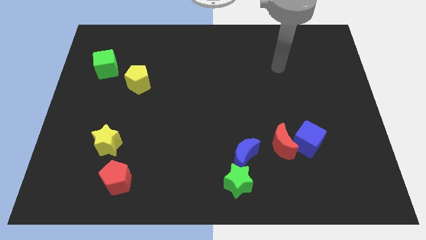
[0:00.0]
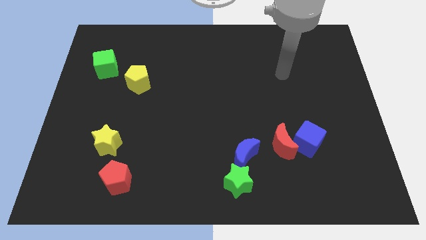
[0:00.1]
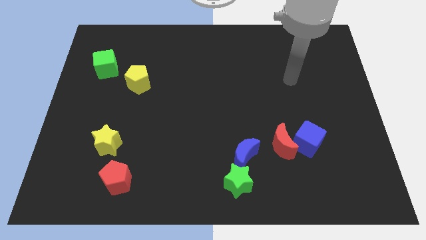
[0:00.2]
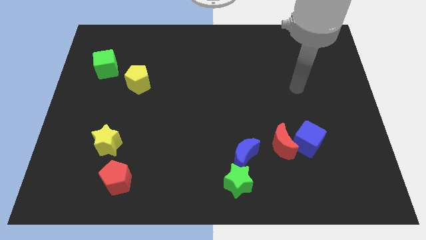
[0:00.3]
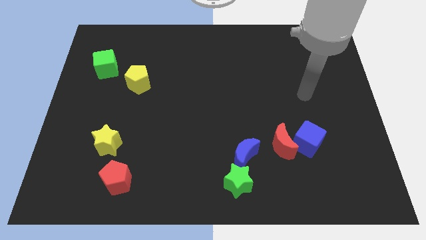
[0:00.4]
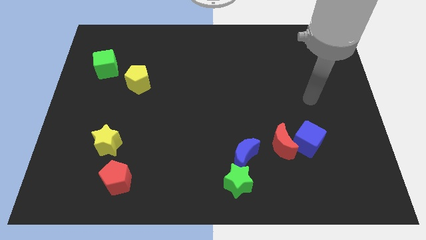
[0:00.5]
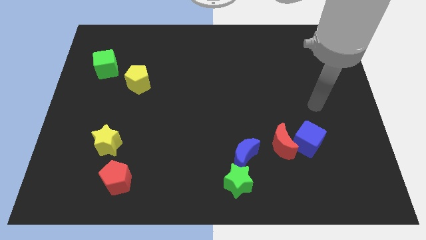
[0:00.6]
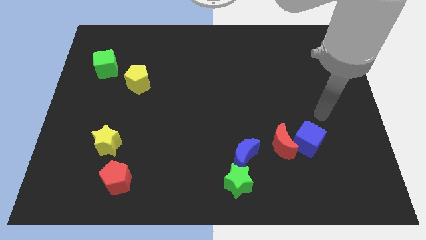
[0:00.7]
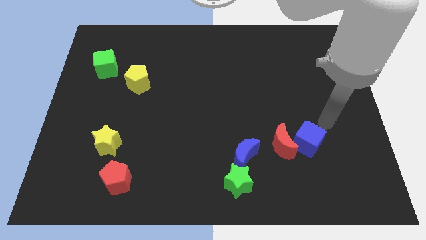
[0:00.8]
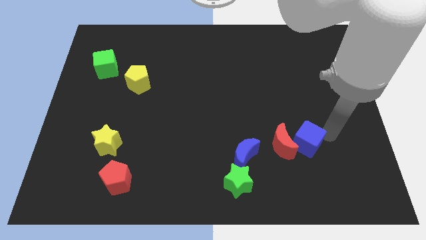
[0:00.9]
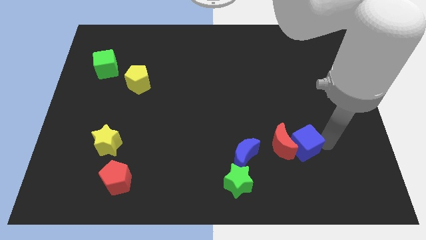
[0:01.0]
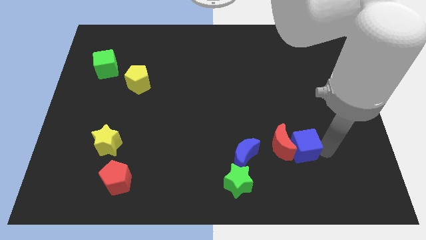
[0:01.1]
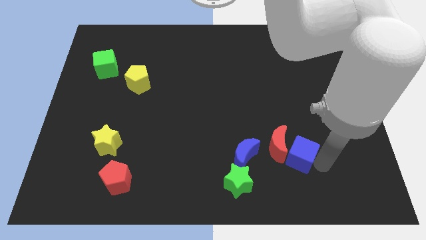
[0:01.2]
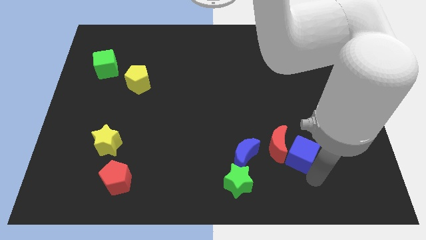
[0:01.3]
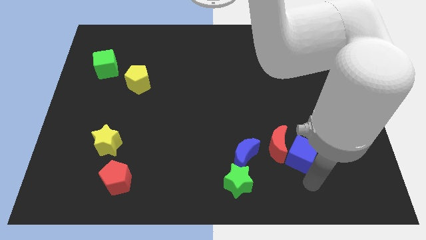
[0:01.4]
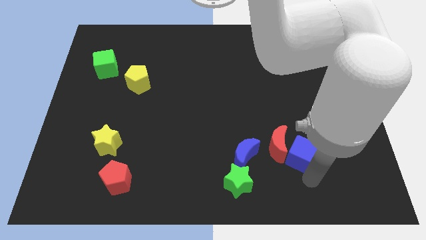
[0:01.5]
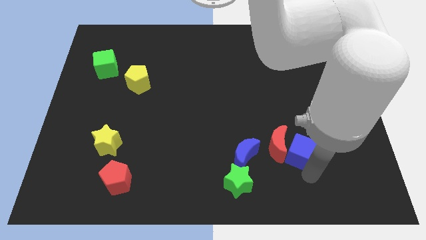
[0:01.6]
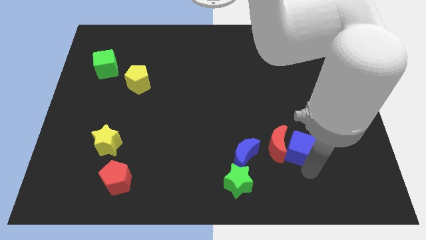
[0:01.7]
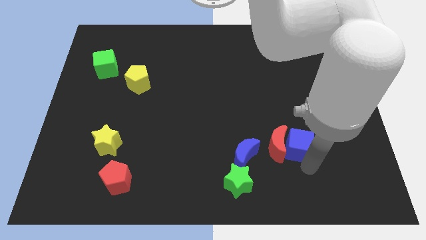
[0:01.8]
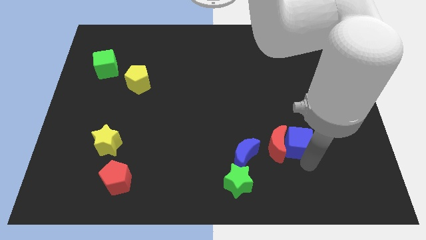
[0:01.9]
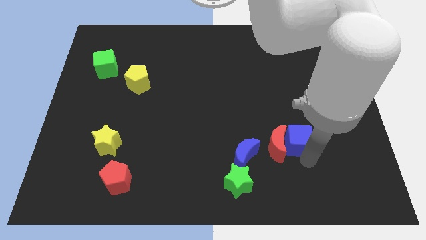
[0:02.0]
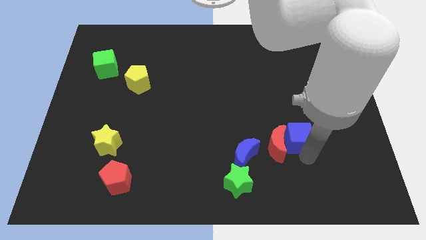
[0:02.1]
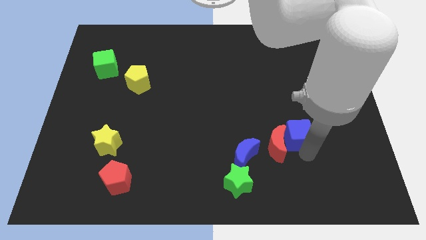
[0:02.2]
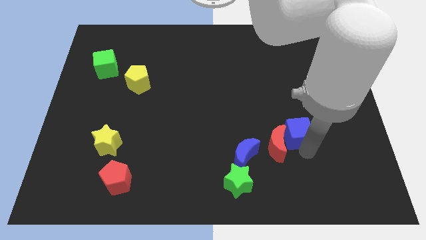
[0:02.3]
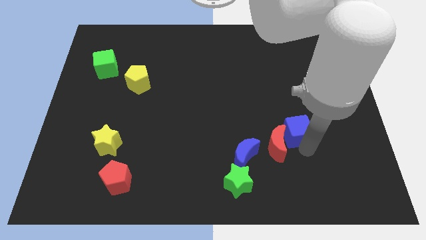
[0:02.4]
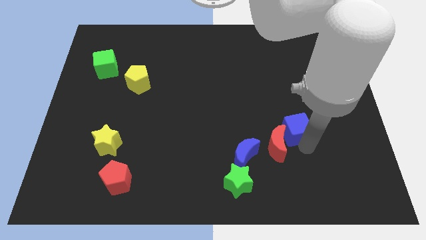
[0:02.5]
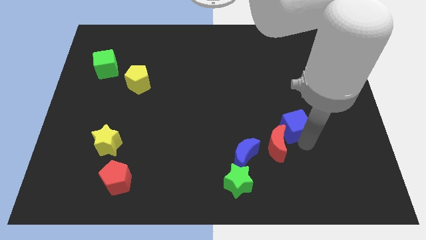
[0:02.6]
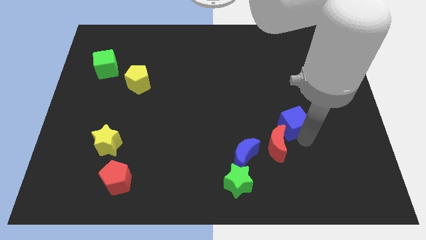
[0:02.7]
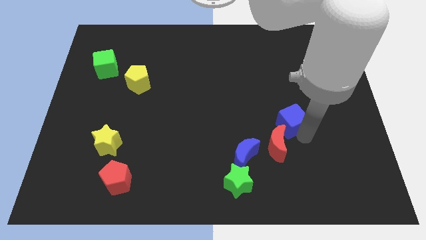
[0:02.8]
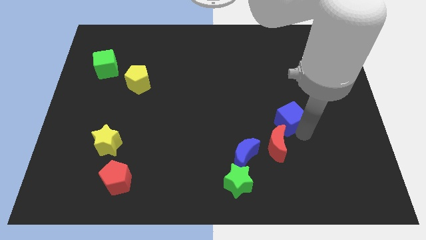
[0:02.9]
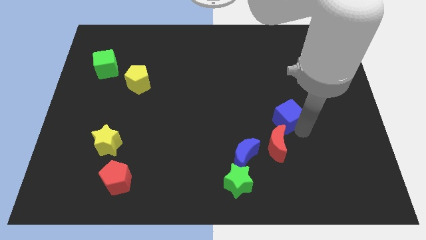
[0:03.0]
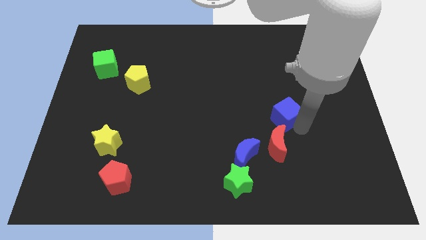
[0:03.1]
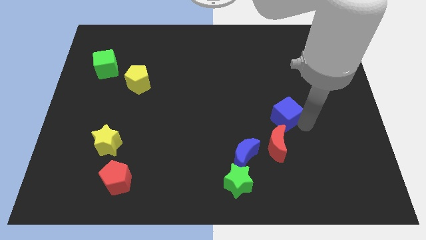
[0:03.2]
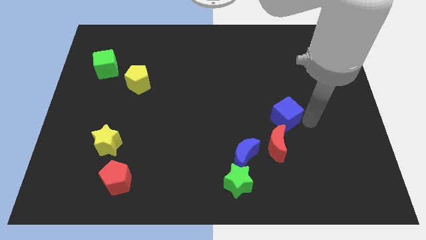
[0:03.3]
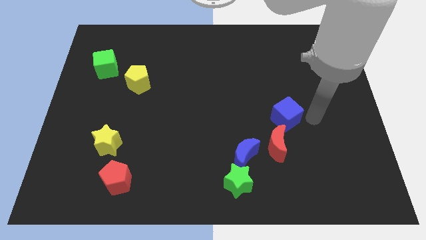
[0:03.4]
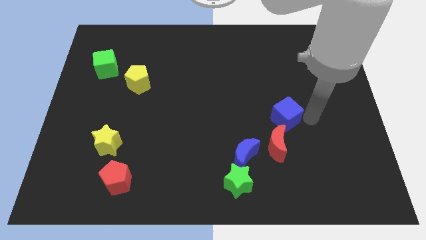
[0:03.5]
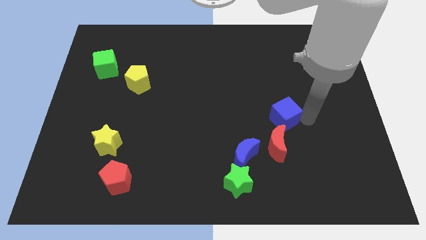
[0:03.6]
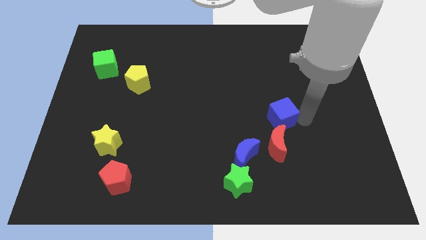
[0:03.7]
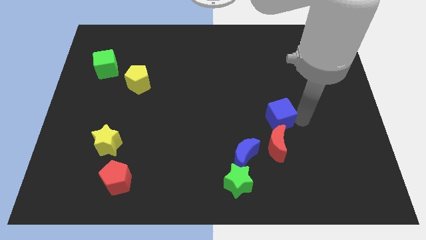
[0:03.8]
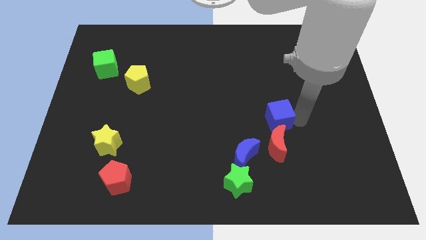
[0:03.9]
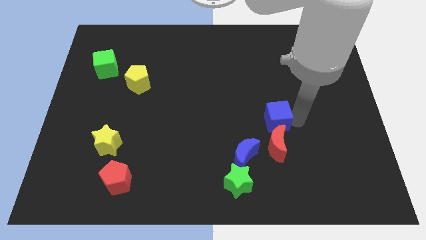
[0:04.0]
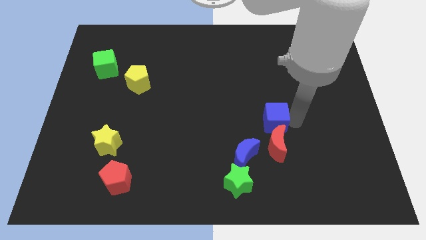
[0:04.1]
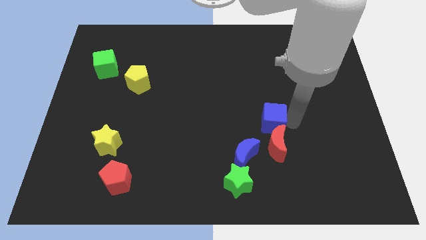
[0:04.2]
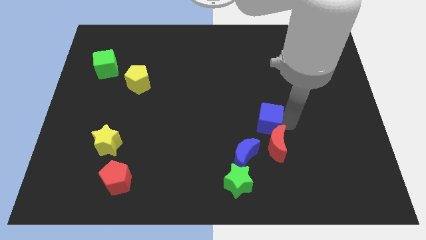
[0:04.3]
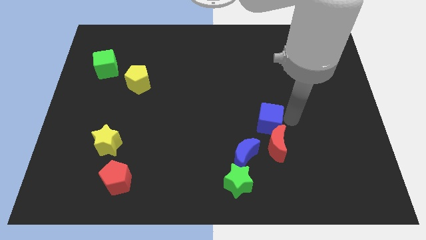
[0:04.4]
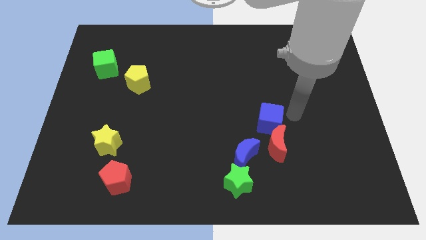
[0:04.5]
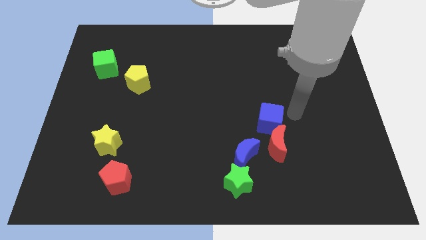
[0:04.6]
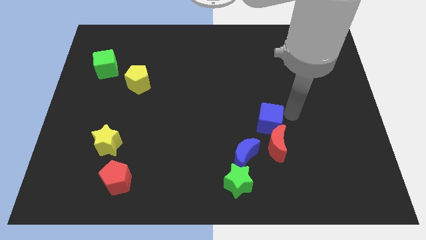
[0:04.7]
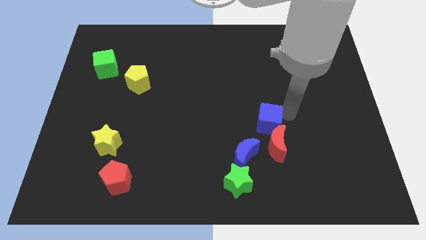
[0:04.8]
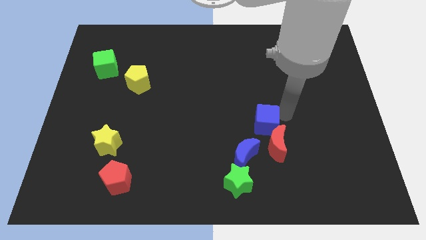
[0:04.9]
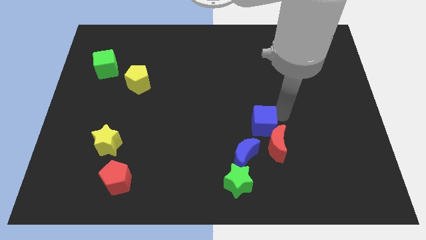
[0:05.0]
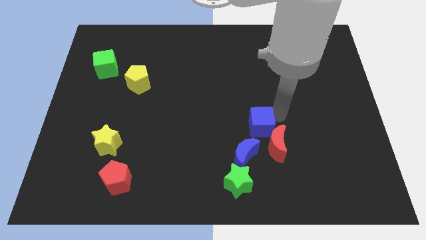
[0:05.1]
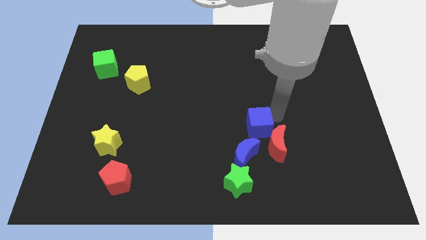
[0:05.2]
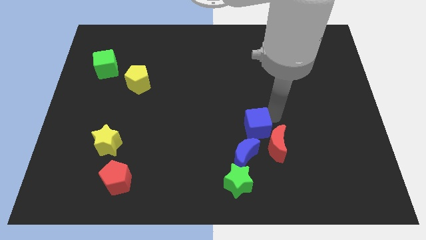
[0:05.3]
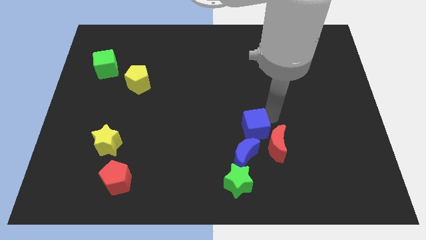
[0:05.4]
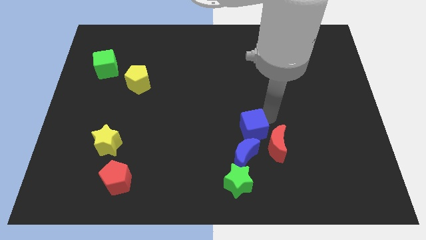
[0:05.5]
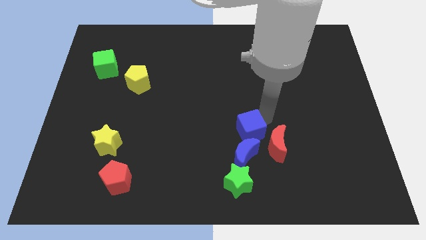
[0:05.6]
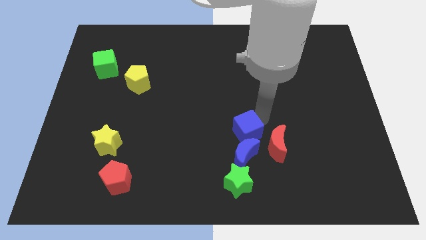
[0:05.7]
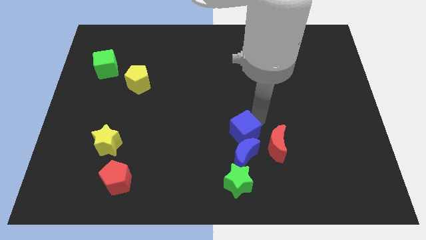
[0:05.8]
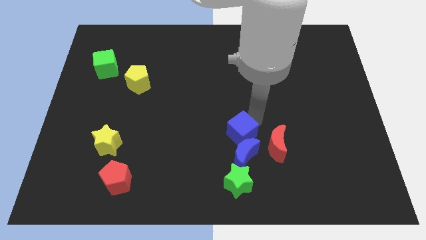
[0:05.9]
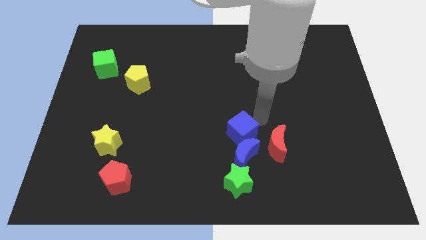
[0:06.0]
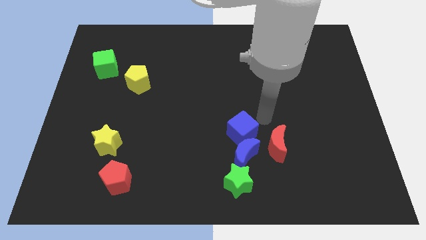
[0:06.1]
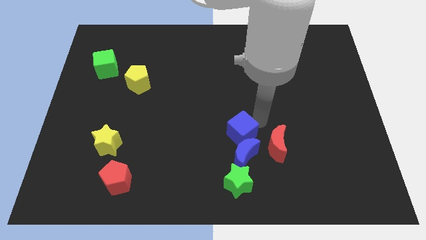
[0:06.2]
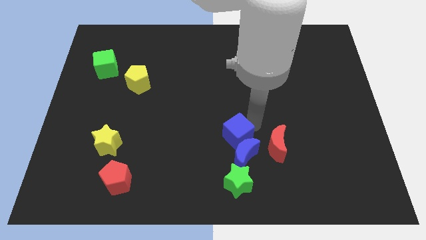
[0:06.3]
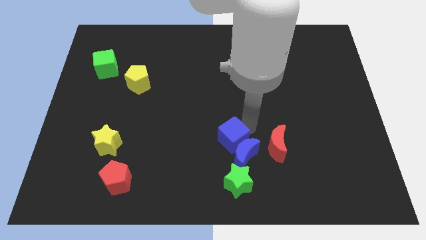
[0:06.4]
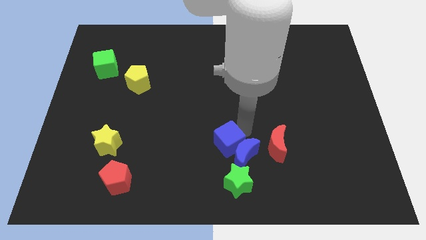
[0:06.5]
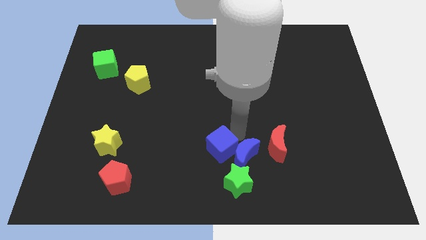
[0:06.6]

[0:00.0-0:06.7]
put the blue cube to the top left side of the green star

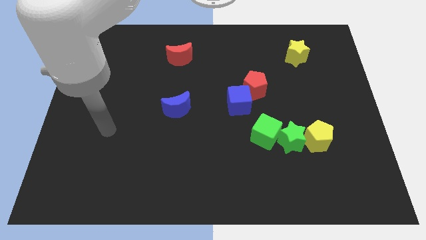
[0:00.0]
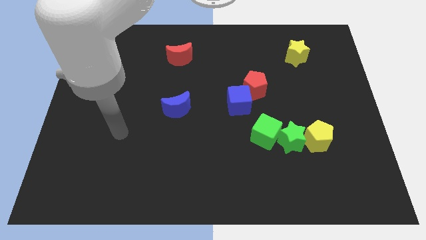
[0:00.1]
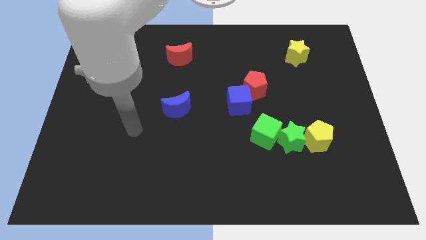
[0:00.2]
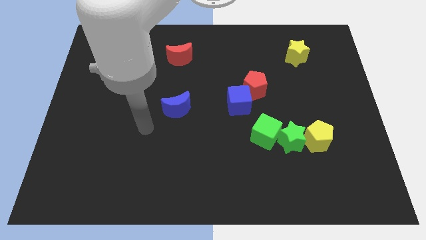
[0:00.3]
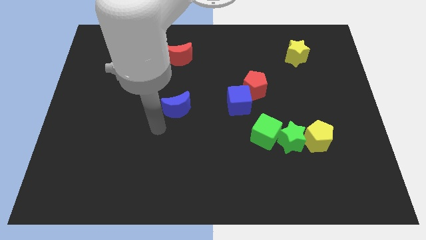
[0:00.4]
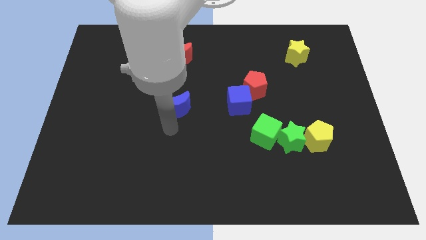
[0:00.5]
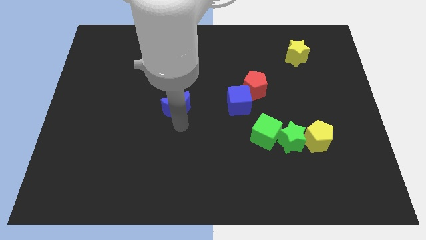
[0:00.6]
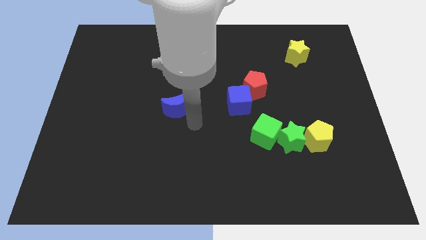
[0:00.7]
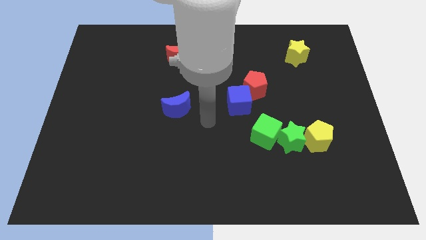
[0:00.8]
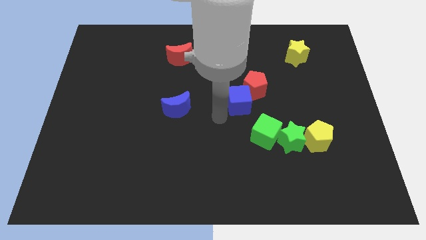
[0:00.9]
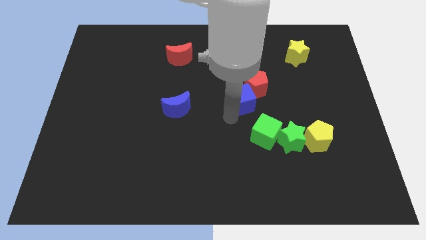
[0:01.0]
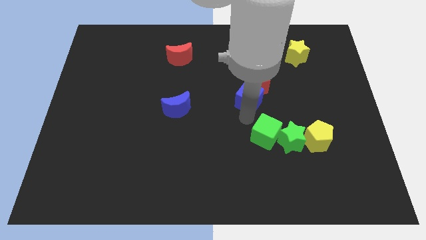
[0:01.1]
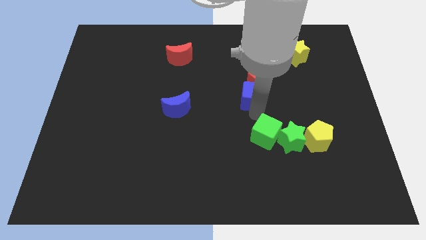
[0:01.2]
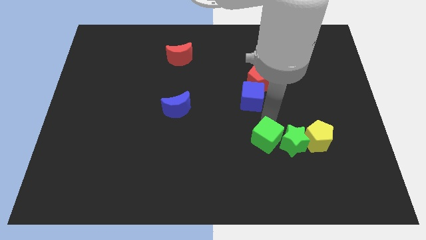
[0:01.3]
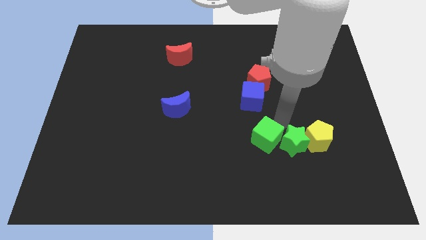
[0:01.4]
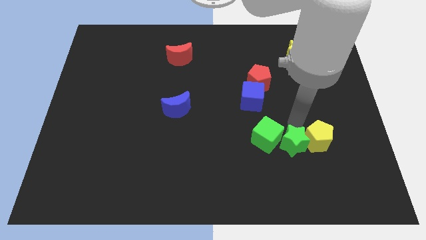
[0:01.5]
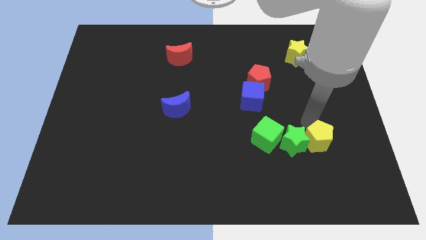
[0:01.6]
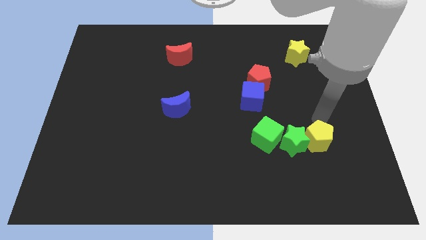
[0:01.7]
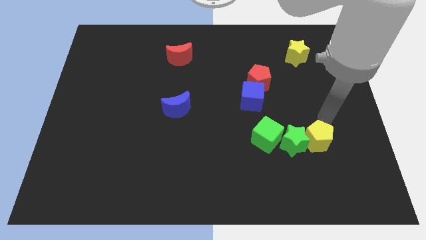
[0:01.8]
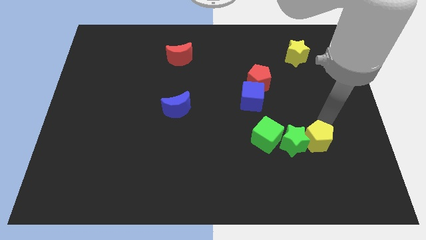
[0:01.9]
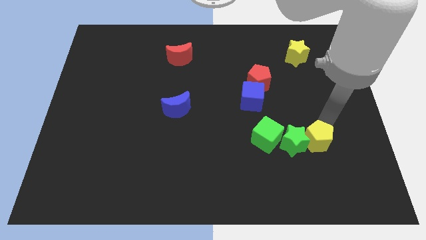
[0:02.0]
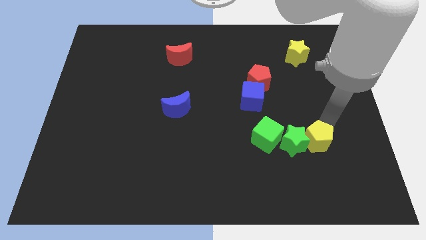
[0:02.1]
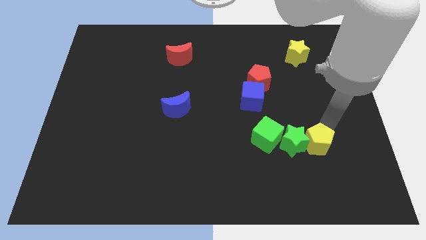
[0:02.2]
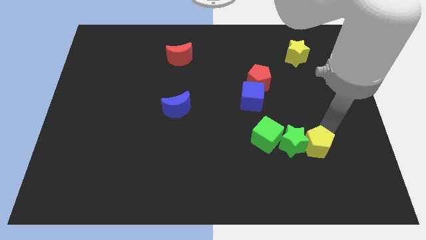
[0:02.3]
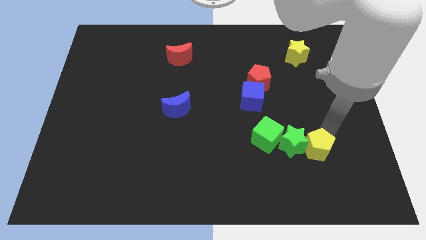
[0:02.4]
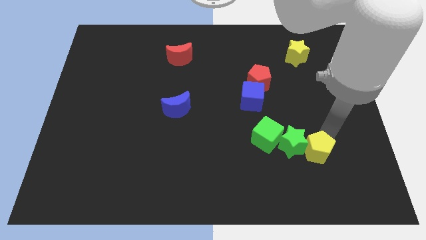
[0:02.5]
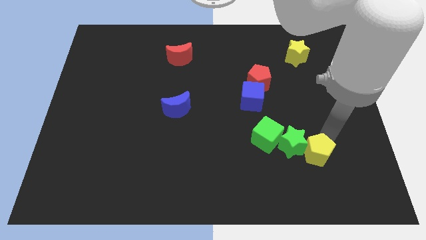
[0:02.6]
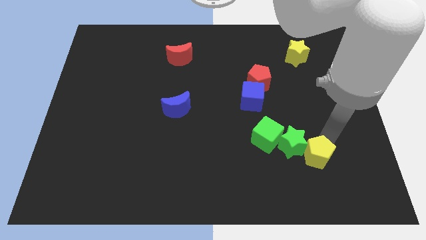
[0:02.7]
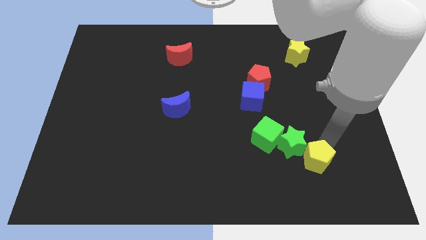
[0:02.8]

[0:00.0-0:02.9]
slide the yellow pentagon to the bottom of the green star
